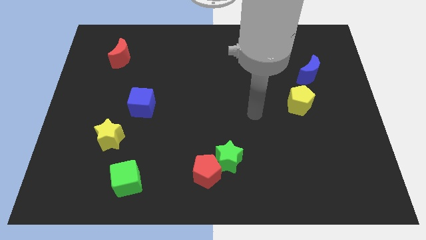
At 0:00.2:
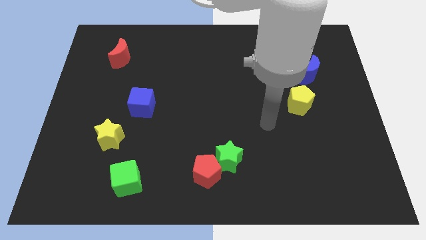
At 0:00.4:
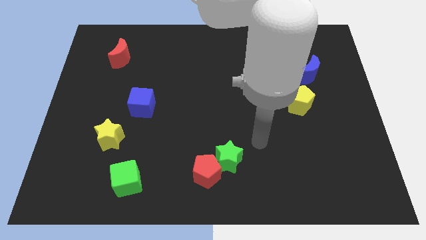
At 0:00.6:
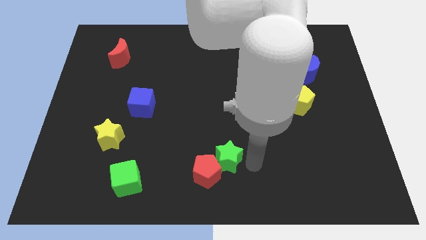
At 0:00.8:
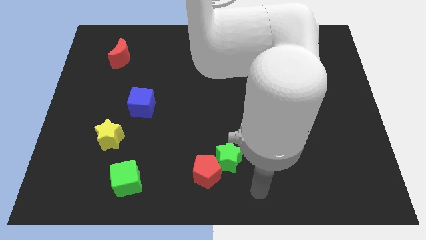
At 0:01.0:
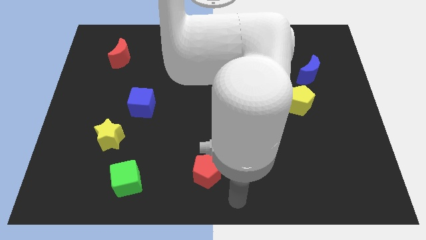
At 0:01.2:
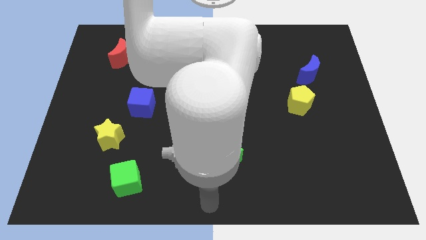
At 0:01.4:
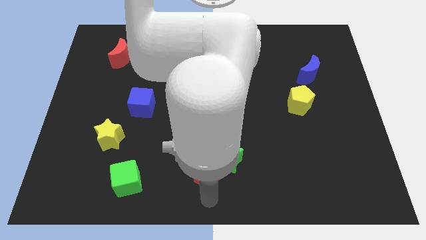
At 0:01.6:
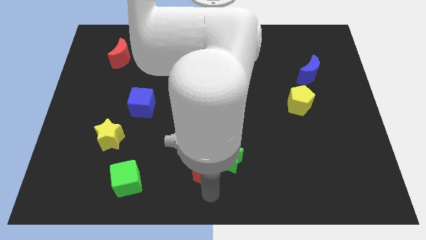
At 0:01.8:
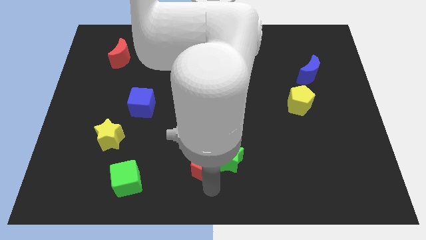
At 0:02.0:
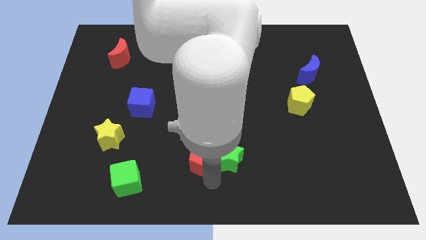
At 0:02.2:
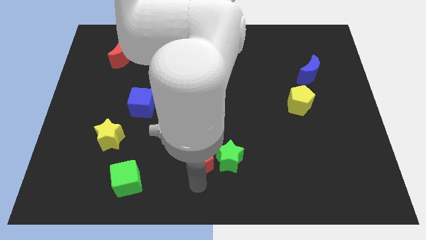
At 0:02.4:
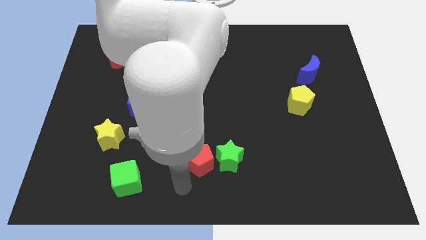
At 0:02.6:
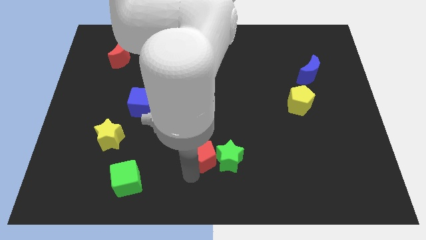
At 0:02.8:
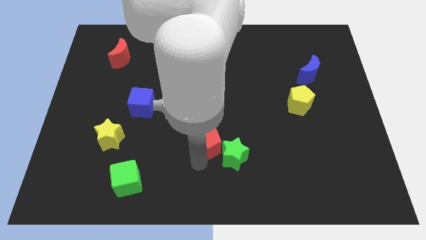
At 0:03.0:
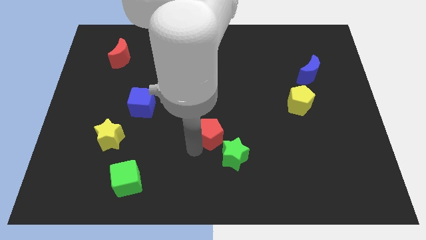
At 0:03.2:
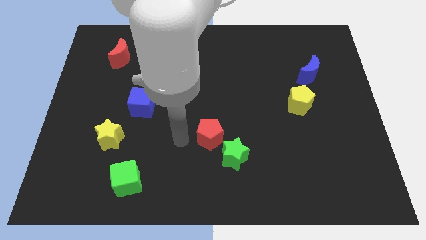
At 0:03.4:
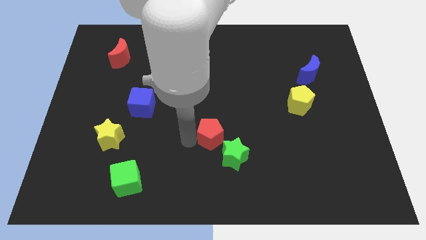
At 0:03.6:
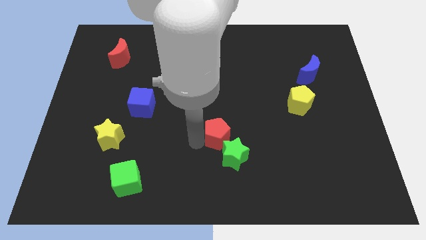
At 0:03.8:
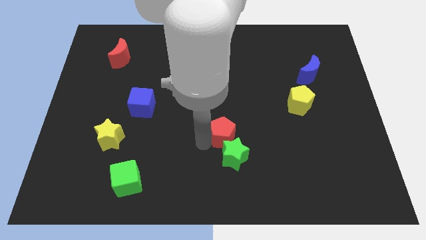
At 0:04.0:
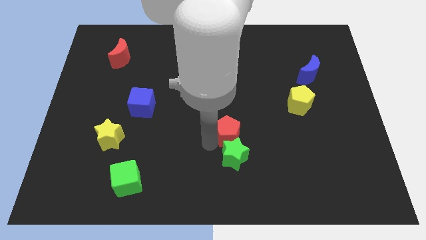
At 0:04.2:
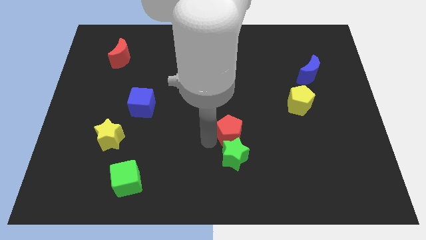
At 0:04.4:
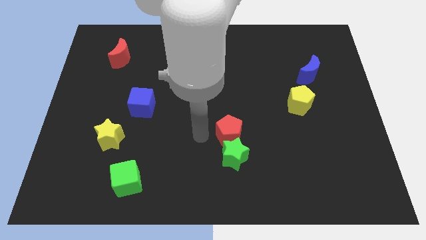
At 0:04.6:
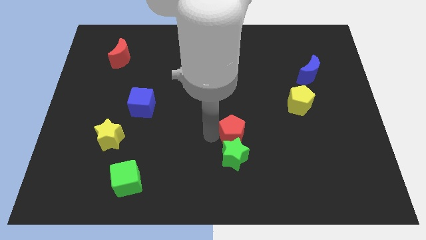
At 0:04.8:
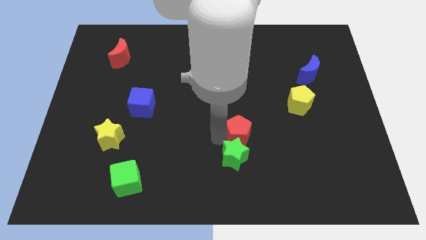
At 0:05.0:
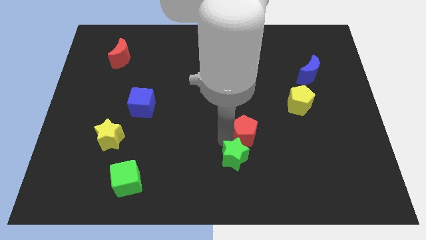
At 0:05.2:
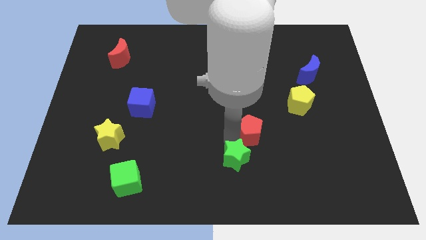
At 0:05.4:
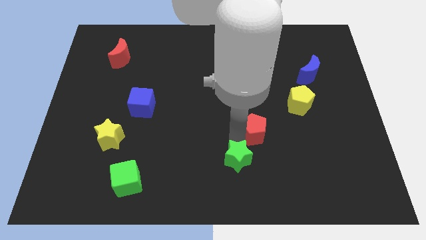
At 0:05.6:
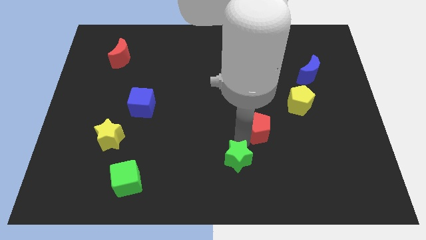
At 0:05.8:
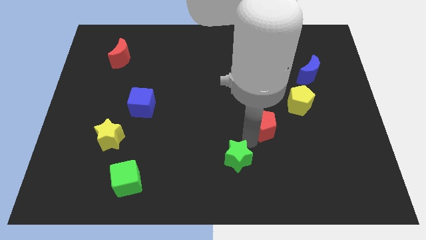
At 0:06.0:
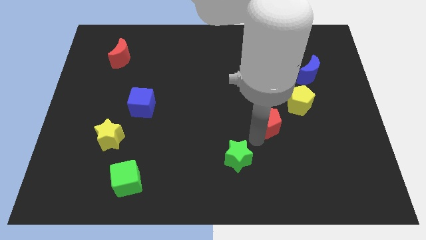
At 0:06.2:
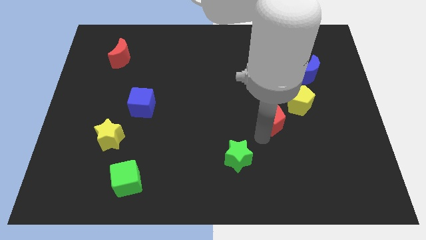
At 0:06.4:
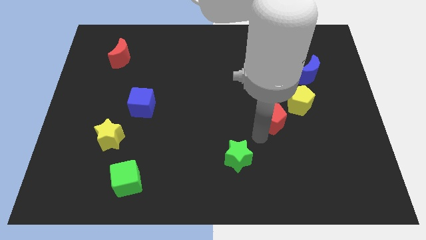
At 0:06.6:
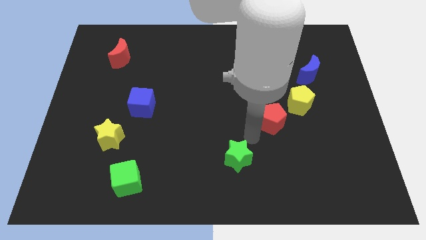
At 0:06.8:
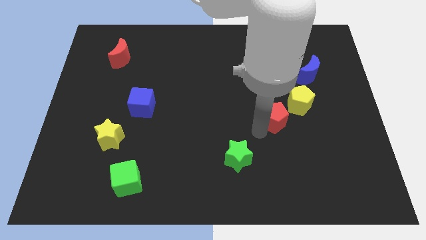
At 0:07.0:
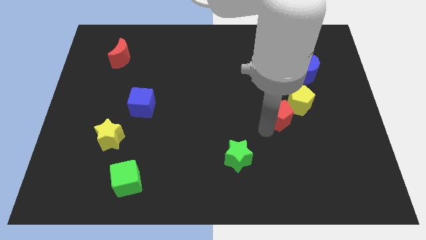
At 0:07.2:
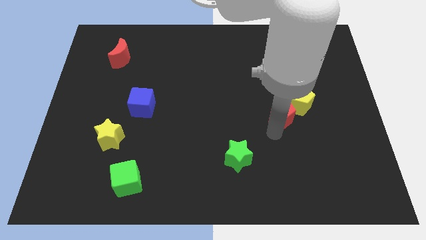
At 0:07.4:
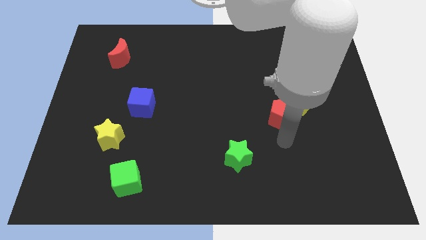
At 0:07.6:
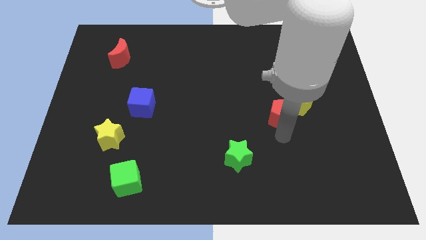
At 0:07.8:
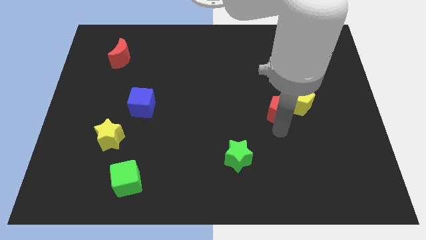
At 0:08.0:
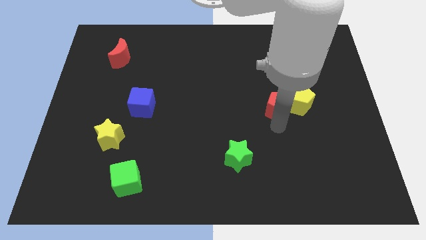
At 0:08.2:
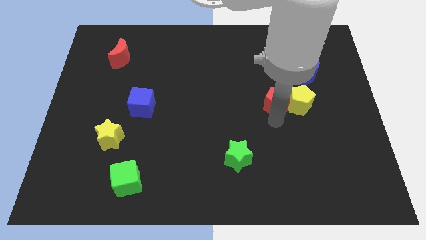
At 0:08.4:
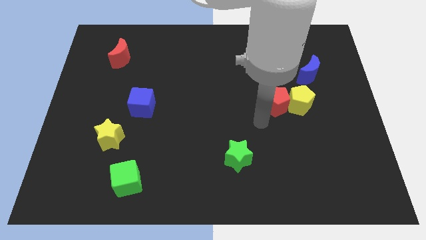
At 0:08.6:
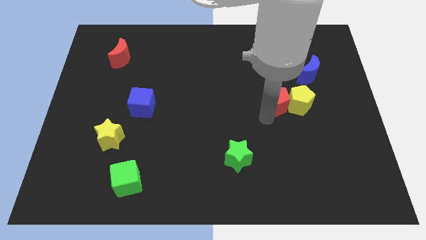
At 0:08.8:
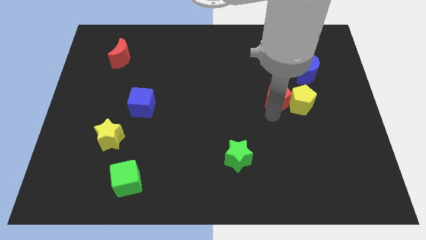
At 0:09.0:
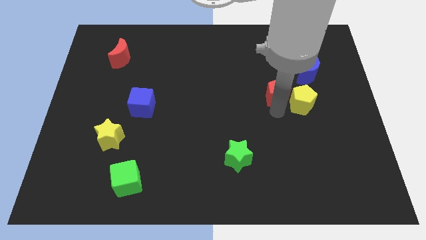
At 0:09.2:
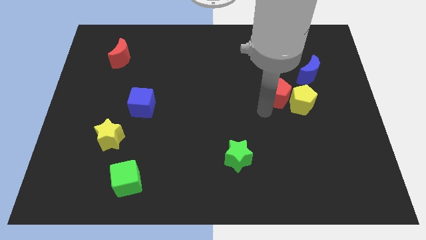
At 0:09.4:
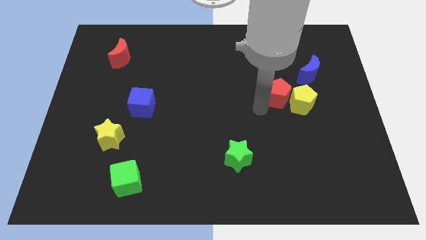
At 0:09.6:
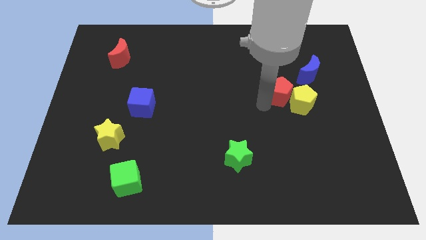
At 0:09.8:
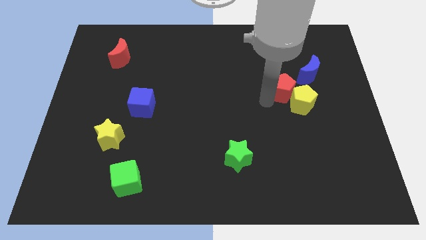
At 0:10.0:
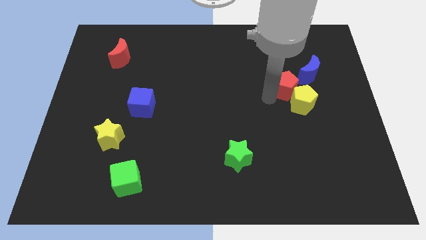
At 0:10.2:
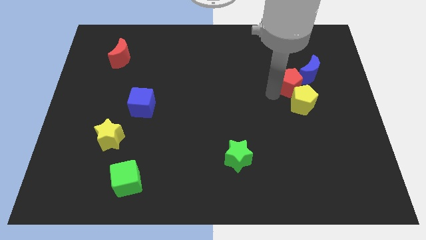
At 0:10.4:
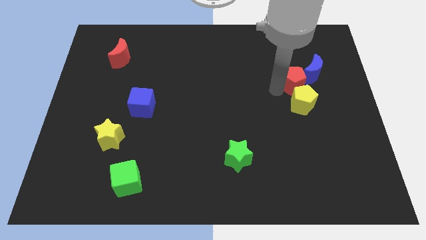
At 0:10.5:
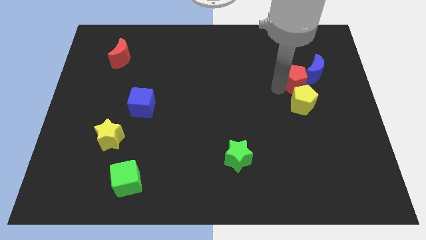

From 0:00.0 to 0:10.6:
move the red pentagon next to the blue moon

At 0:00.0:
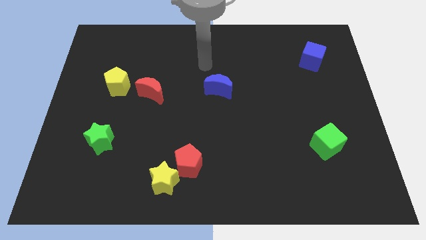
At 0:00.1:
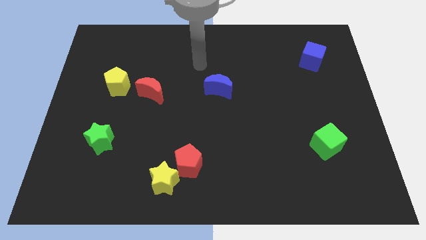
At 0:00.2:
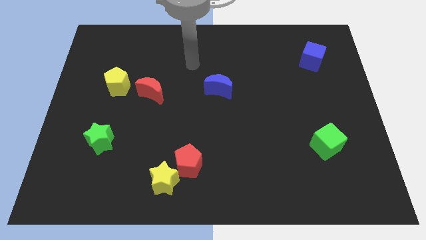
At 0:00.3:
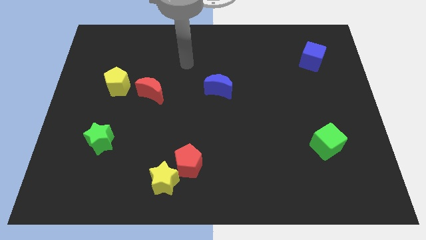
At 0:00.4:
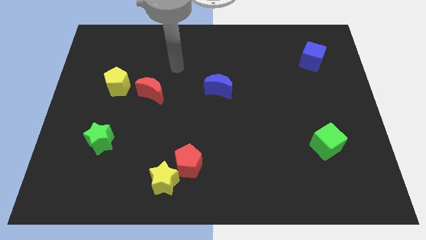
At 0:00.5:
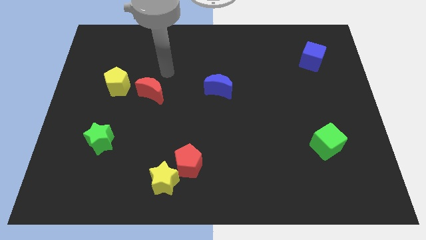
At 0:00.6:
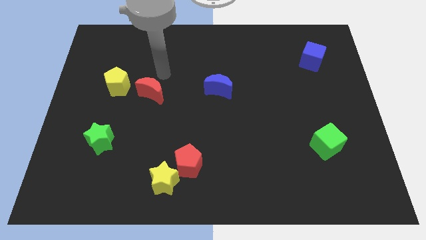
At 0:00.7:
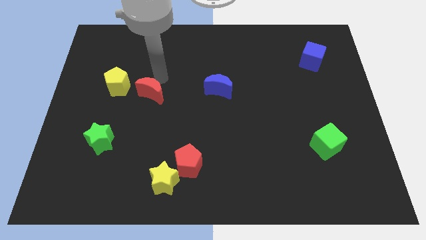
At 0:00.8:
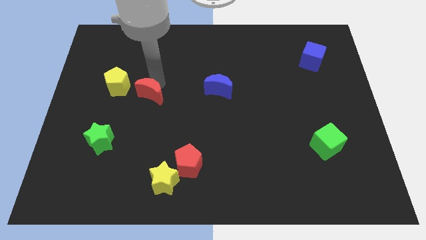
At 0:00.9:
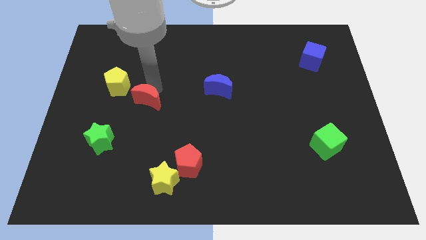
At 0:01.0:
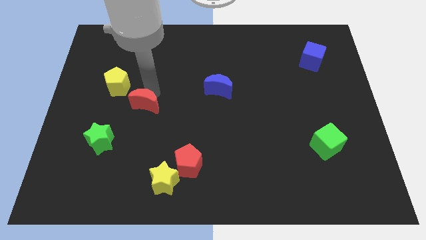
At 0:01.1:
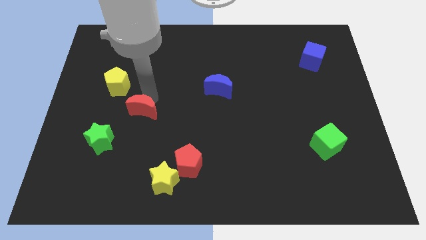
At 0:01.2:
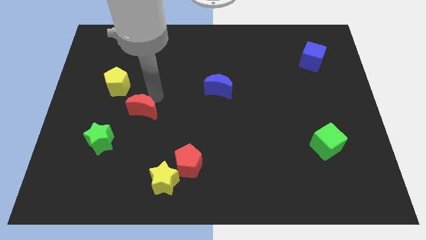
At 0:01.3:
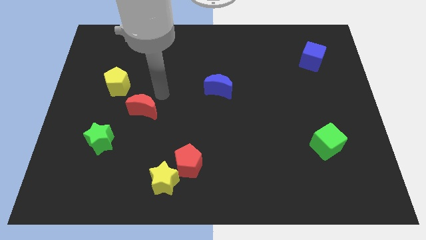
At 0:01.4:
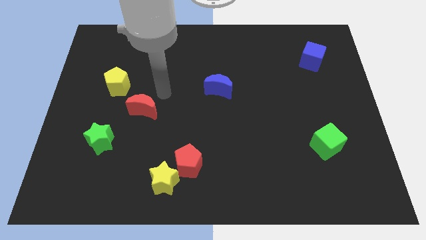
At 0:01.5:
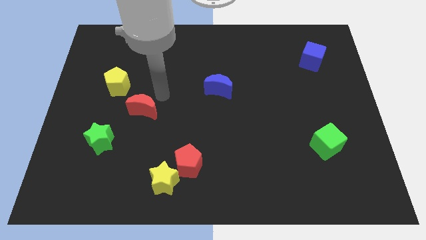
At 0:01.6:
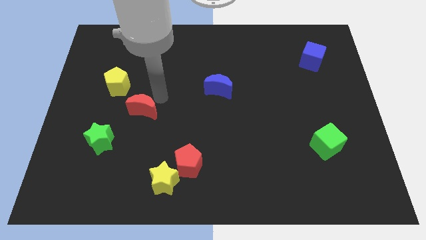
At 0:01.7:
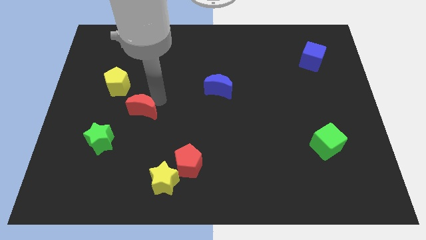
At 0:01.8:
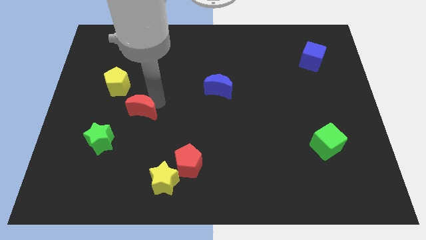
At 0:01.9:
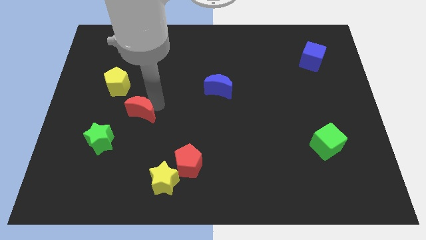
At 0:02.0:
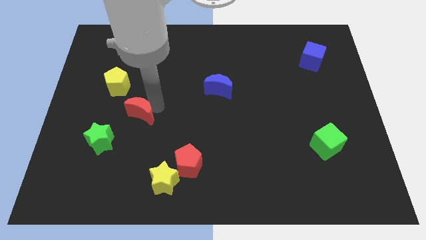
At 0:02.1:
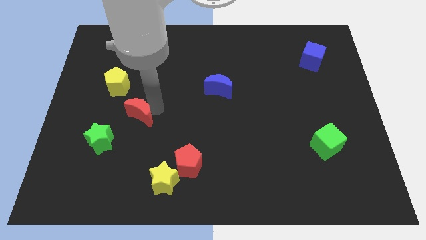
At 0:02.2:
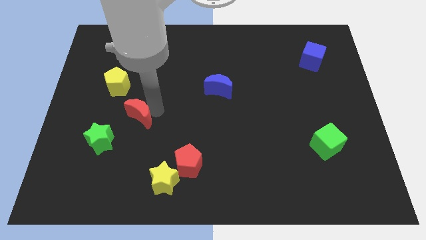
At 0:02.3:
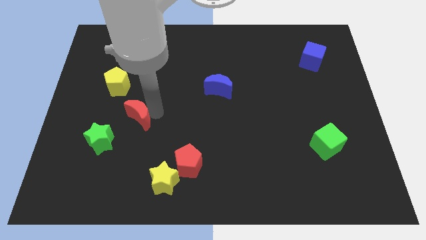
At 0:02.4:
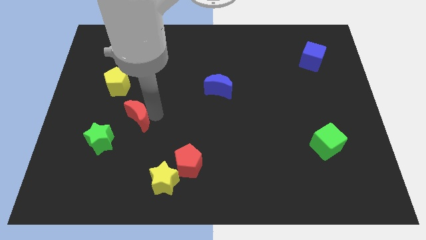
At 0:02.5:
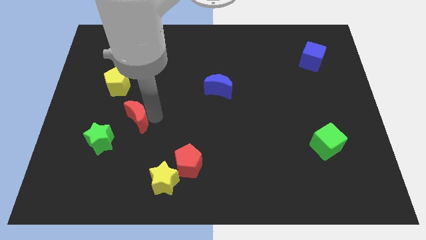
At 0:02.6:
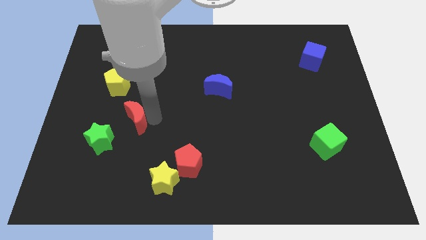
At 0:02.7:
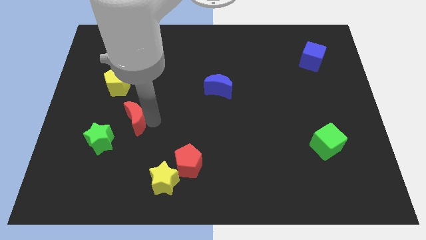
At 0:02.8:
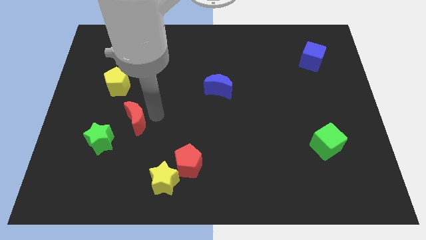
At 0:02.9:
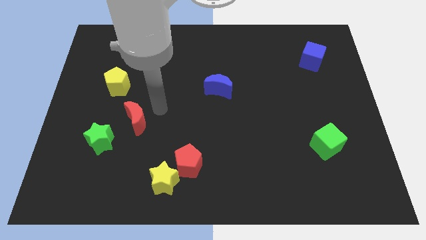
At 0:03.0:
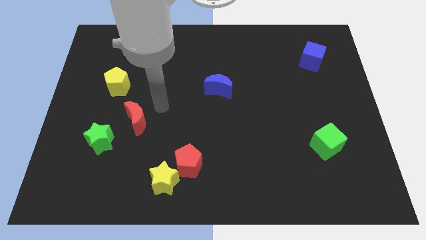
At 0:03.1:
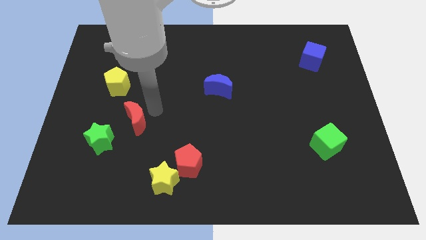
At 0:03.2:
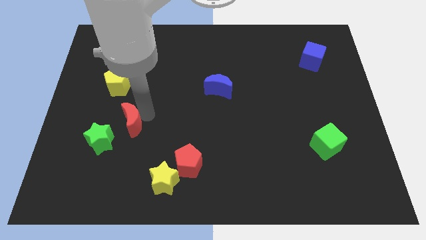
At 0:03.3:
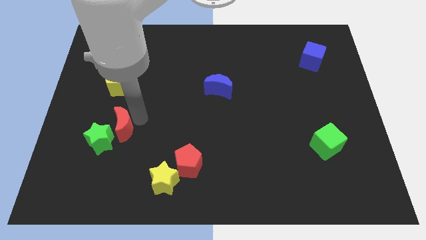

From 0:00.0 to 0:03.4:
slide the red moon to the green star
